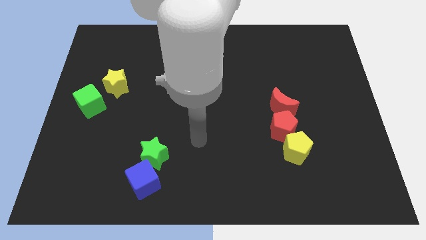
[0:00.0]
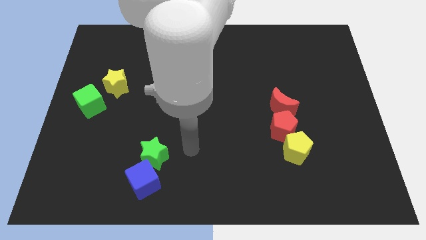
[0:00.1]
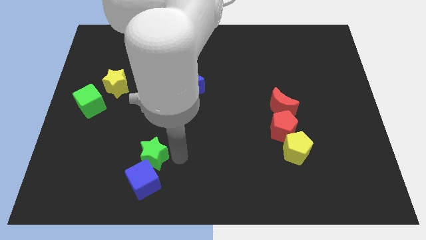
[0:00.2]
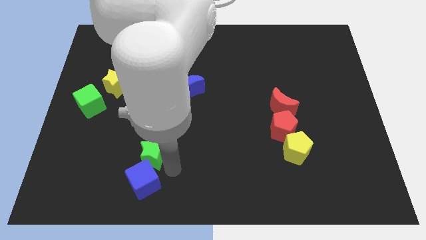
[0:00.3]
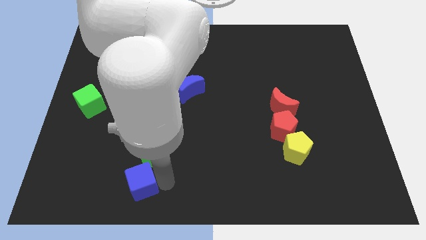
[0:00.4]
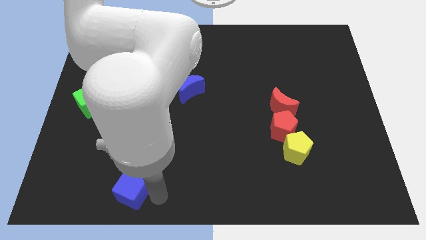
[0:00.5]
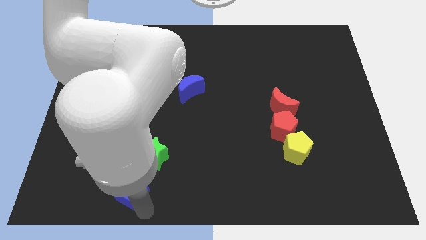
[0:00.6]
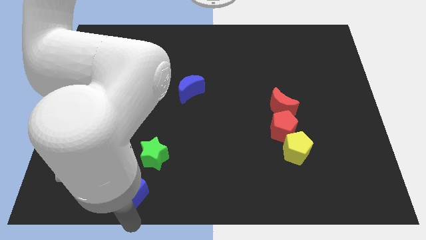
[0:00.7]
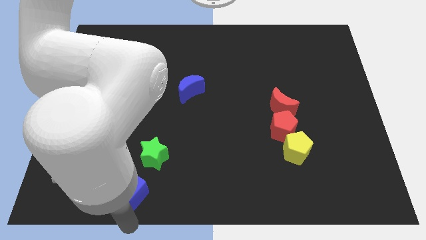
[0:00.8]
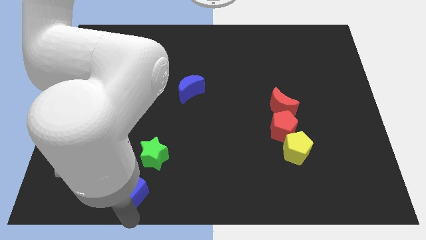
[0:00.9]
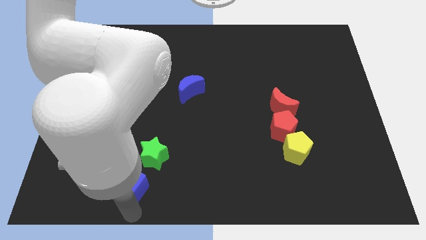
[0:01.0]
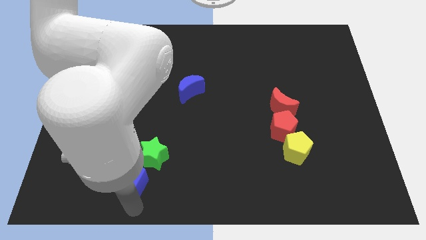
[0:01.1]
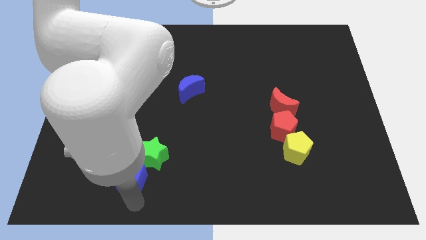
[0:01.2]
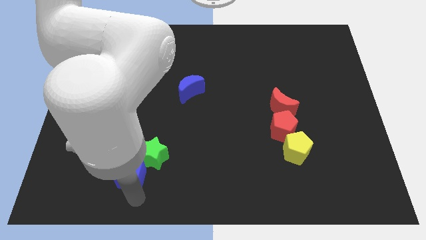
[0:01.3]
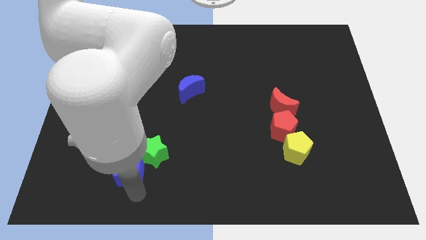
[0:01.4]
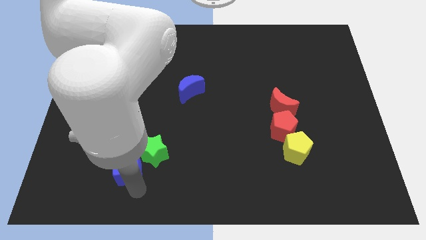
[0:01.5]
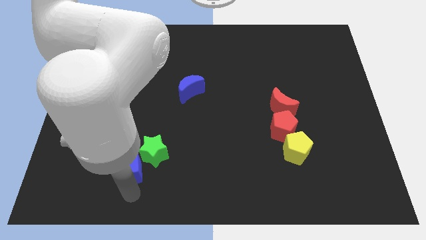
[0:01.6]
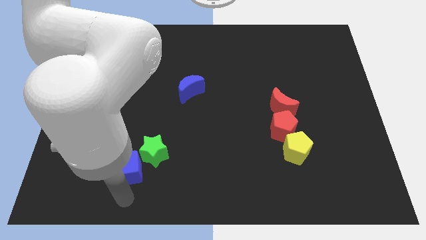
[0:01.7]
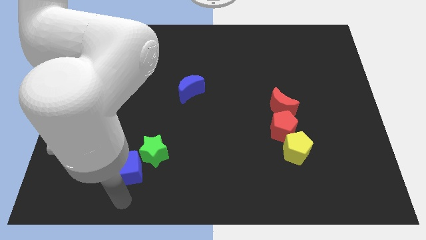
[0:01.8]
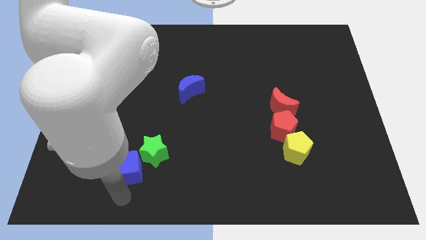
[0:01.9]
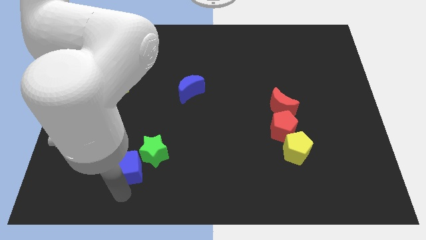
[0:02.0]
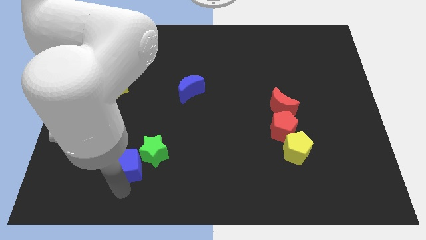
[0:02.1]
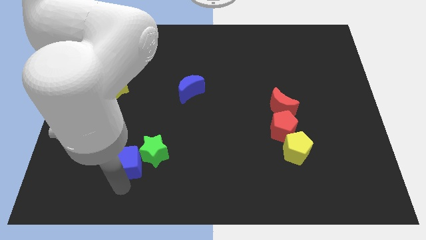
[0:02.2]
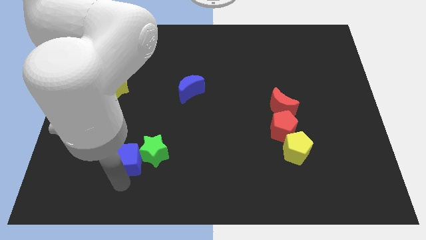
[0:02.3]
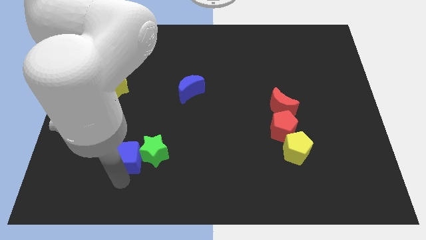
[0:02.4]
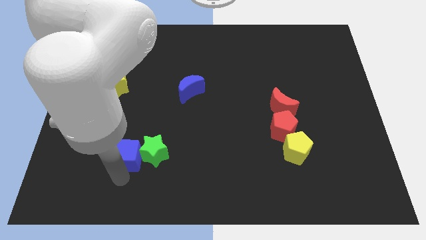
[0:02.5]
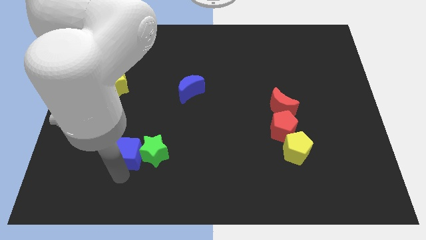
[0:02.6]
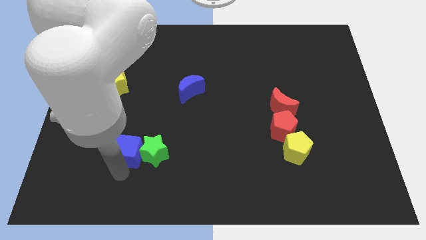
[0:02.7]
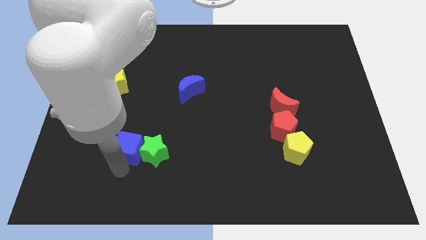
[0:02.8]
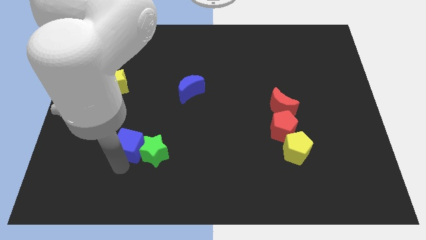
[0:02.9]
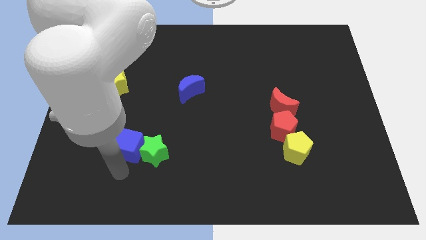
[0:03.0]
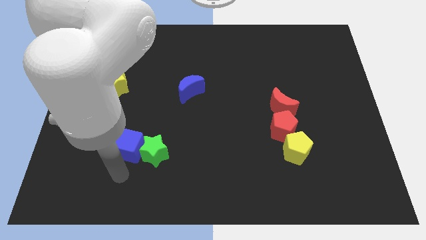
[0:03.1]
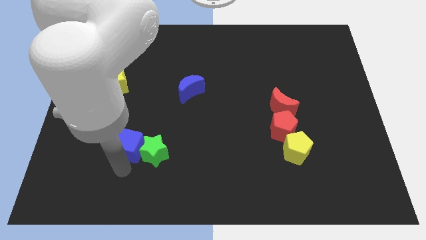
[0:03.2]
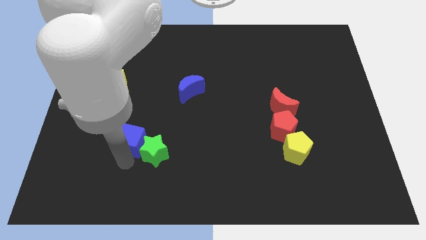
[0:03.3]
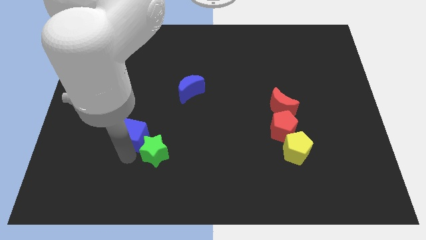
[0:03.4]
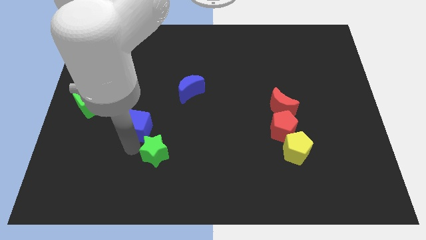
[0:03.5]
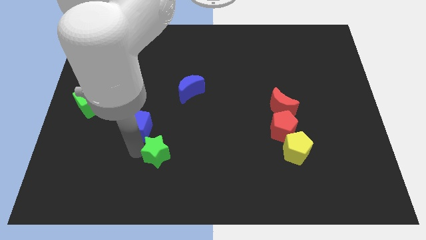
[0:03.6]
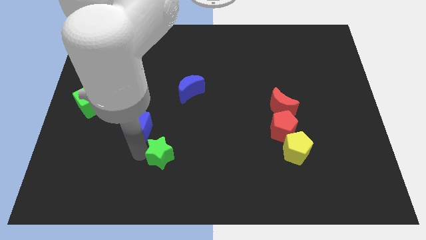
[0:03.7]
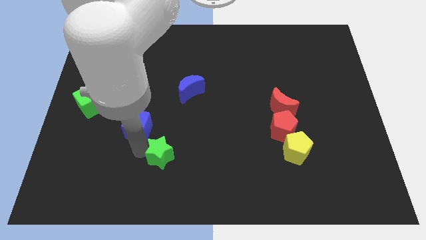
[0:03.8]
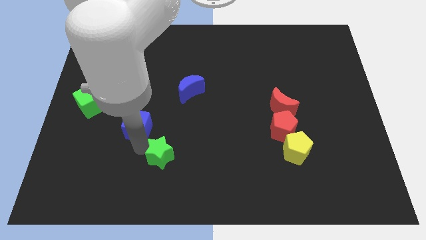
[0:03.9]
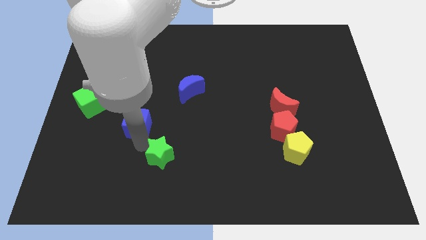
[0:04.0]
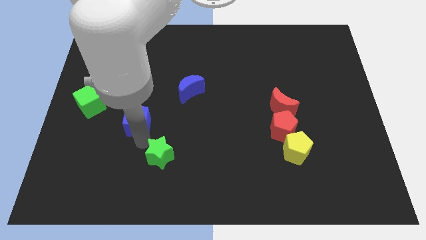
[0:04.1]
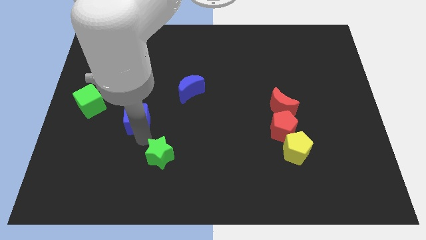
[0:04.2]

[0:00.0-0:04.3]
move the blue cube diagonally down and to the right of the yellow star

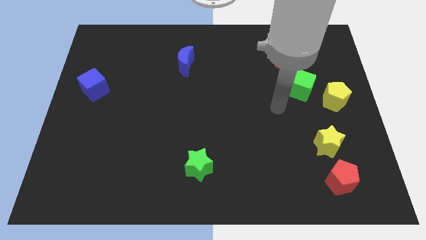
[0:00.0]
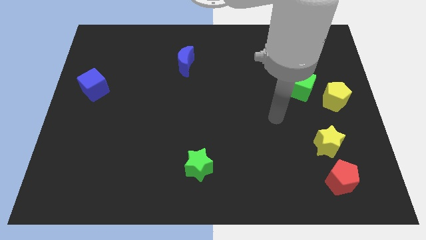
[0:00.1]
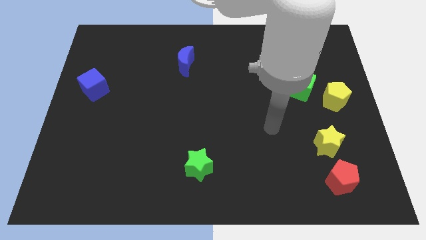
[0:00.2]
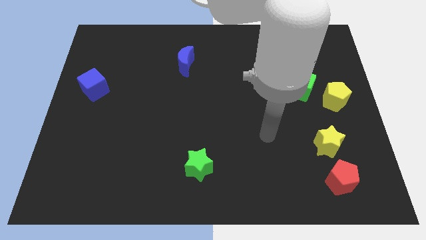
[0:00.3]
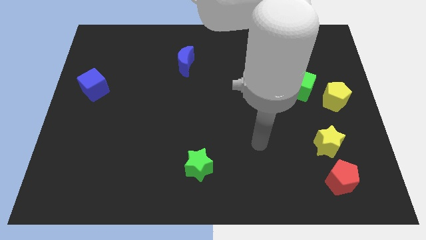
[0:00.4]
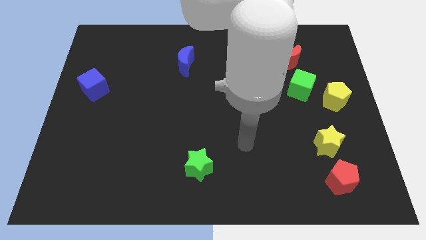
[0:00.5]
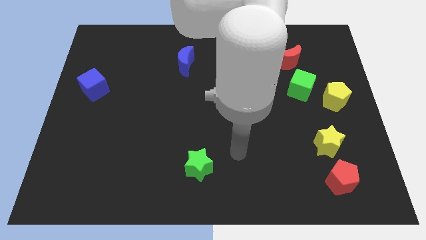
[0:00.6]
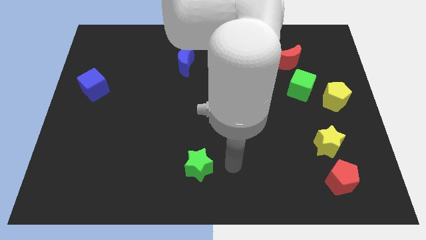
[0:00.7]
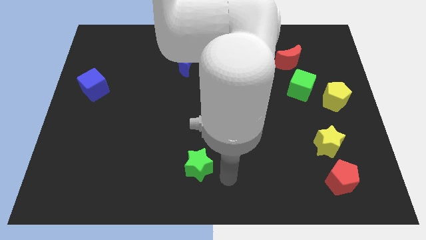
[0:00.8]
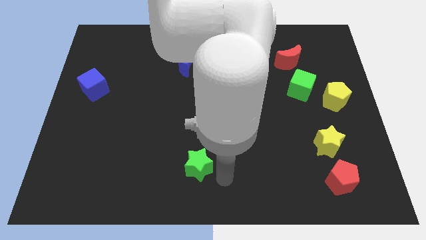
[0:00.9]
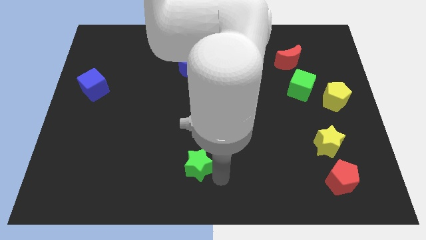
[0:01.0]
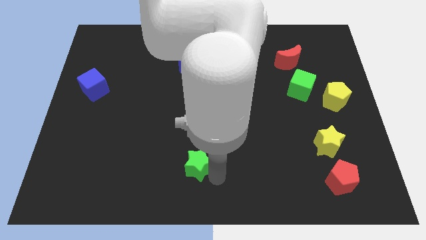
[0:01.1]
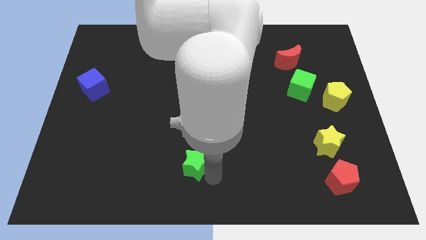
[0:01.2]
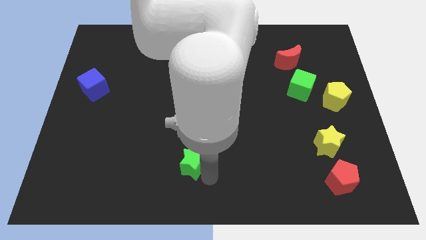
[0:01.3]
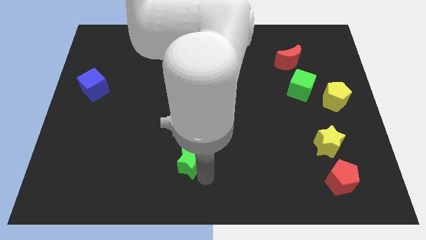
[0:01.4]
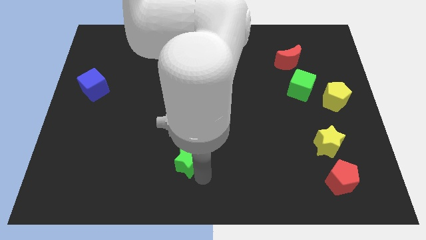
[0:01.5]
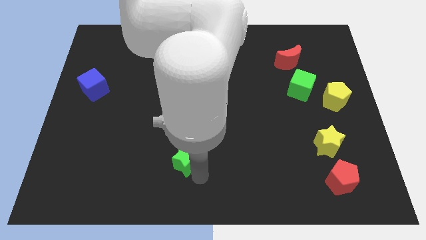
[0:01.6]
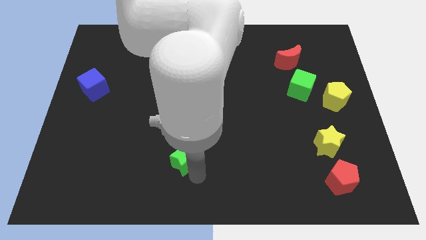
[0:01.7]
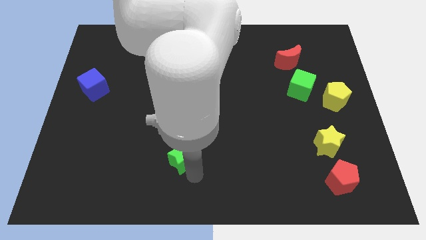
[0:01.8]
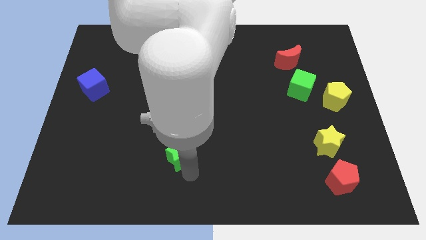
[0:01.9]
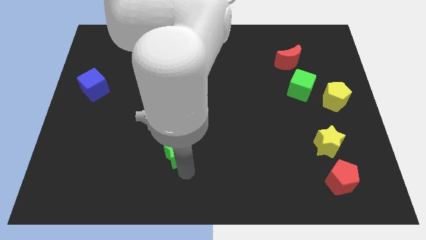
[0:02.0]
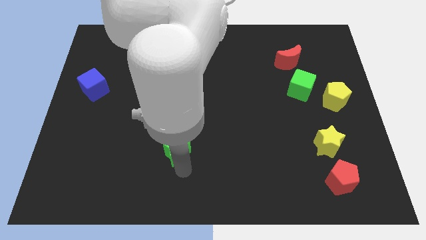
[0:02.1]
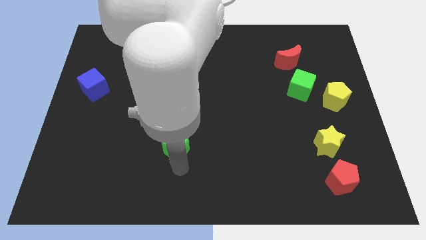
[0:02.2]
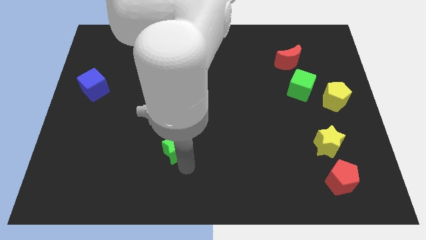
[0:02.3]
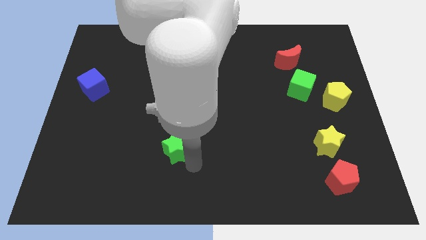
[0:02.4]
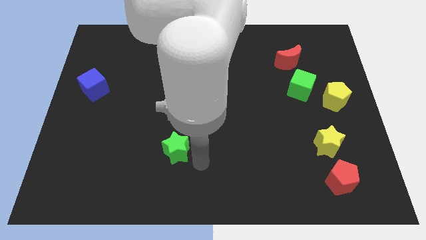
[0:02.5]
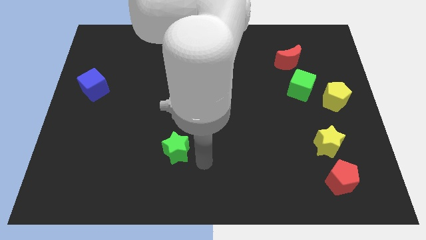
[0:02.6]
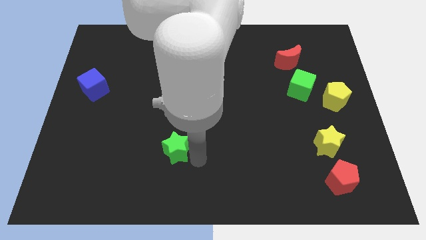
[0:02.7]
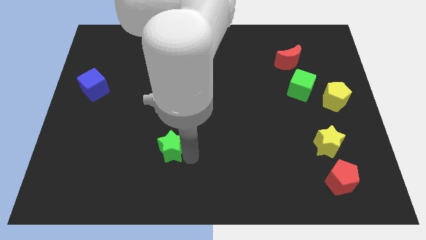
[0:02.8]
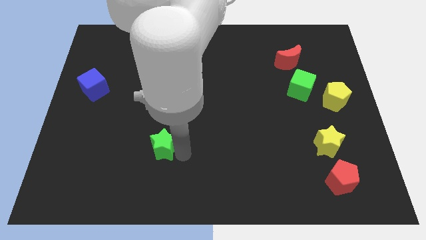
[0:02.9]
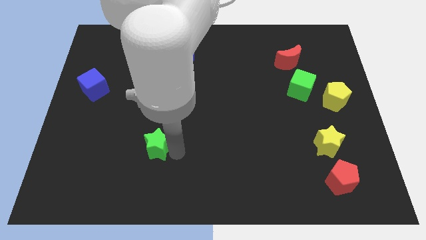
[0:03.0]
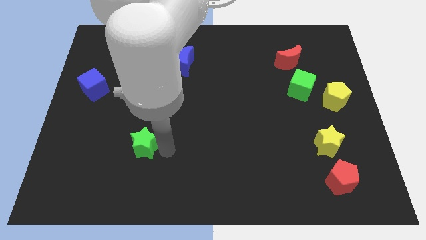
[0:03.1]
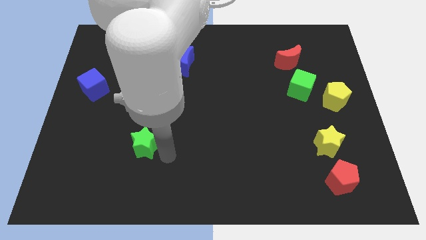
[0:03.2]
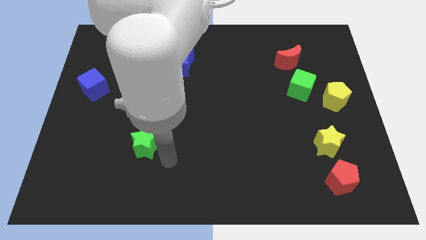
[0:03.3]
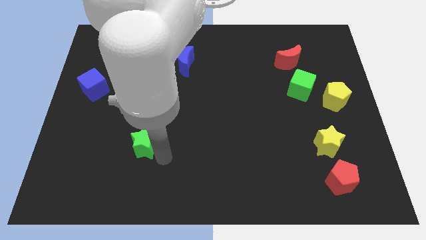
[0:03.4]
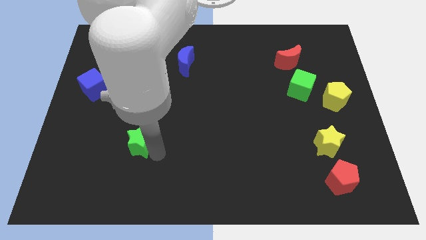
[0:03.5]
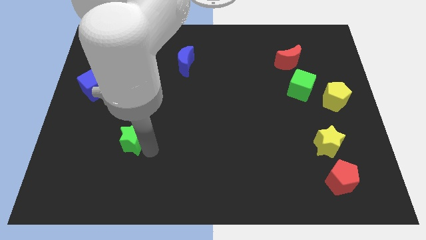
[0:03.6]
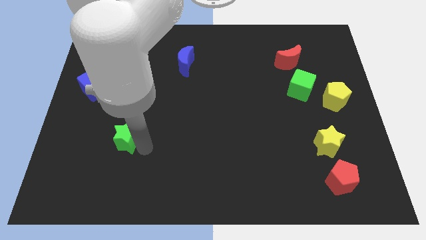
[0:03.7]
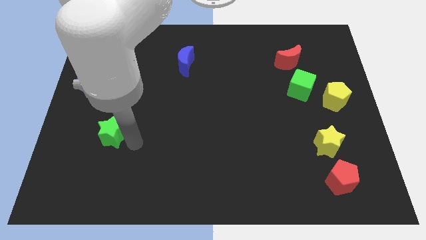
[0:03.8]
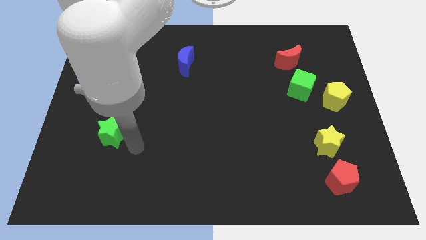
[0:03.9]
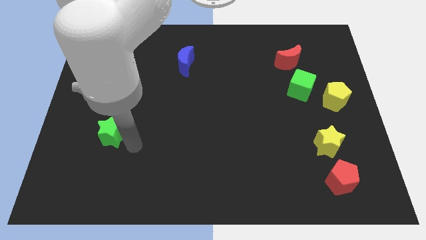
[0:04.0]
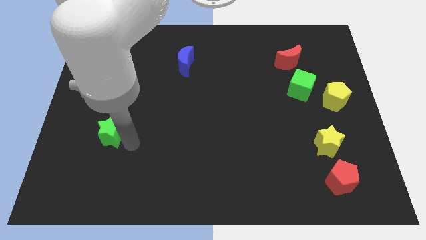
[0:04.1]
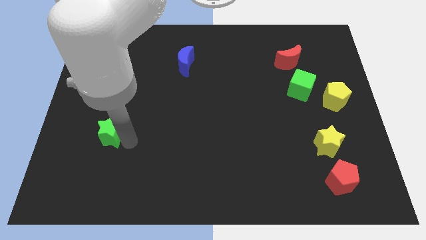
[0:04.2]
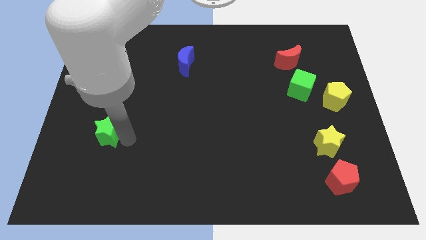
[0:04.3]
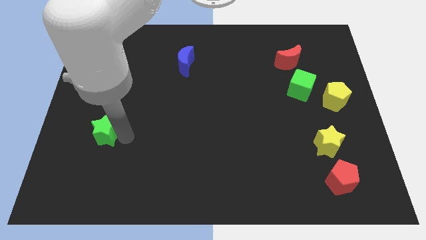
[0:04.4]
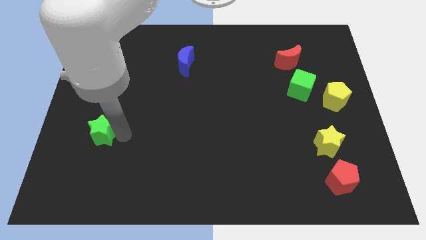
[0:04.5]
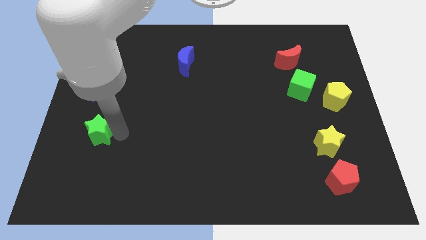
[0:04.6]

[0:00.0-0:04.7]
push the green star to the bottom of the blue cube
